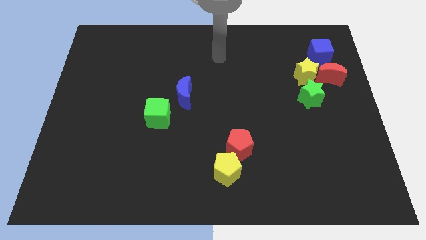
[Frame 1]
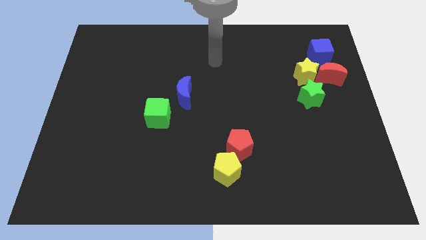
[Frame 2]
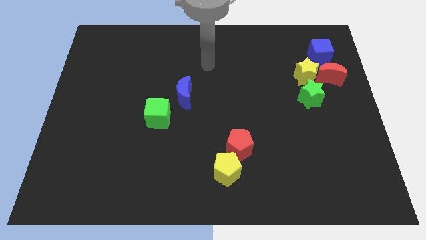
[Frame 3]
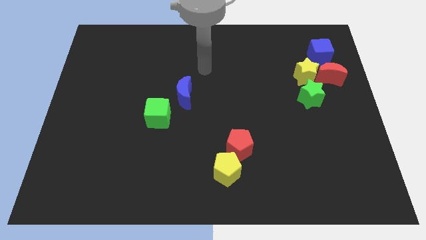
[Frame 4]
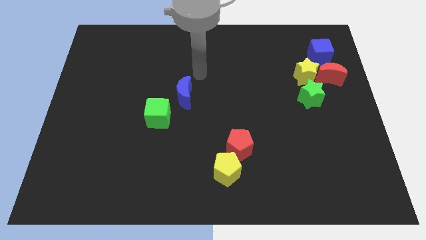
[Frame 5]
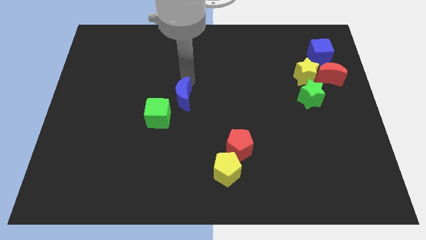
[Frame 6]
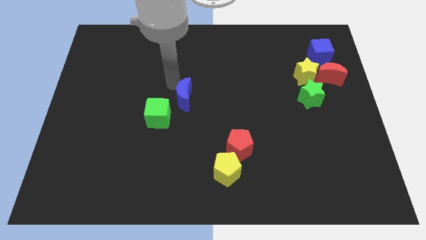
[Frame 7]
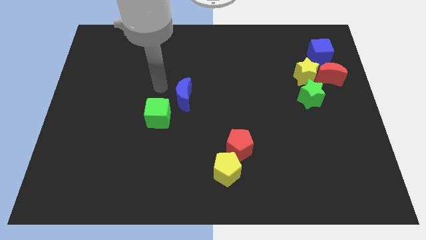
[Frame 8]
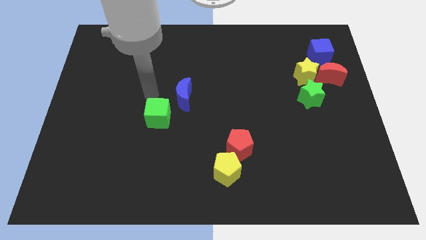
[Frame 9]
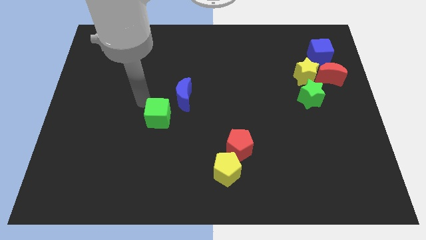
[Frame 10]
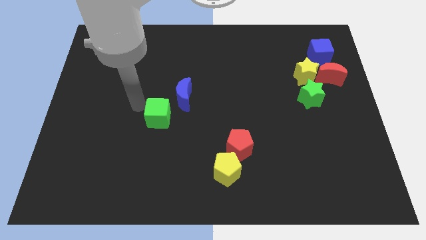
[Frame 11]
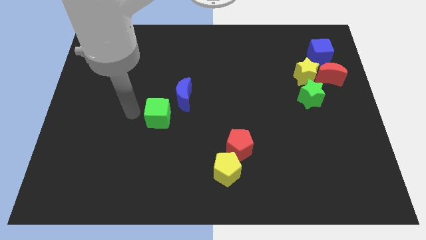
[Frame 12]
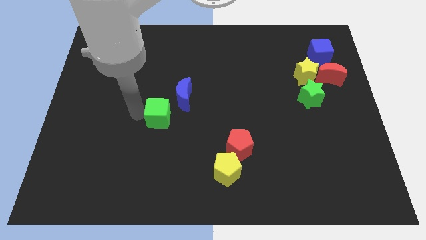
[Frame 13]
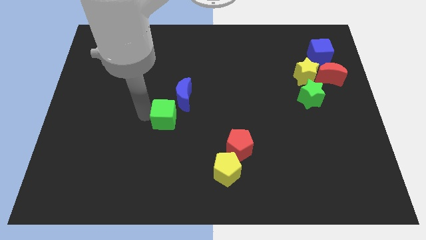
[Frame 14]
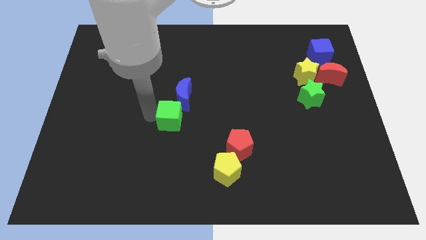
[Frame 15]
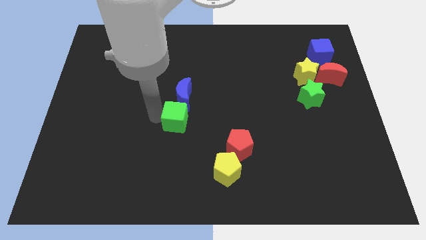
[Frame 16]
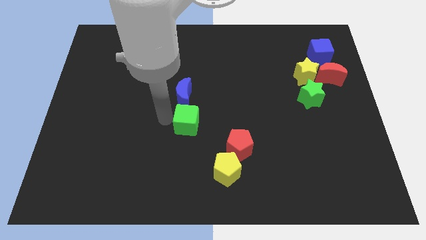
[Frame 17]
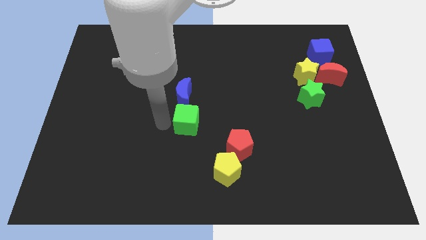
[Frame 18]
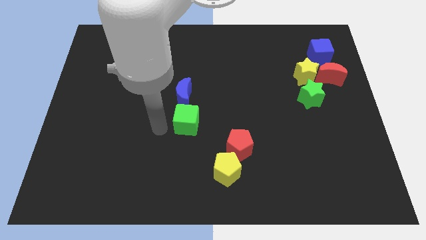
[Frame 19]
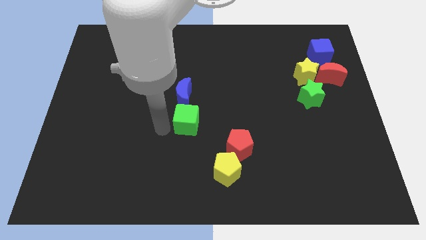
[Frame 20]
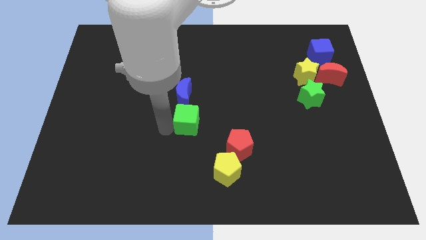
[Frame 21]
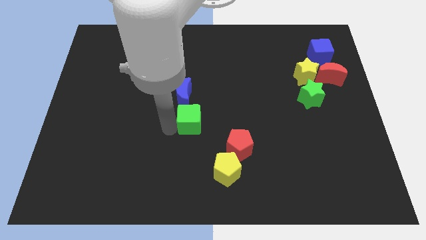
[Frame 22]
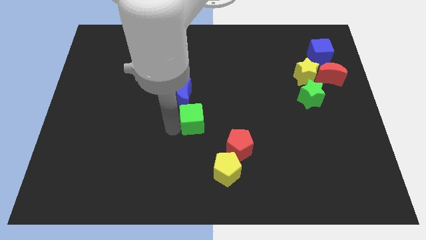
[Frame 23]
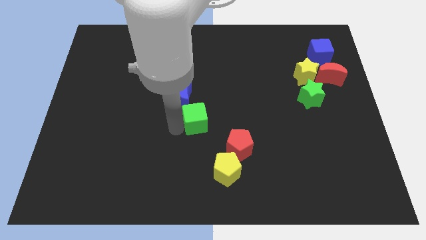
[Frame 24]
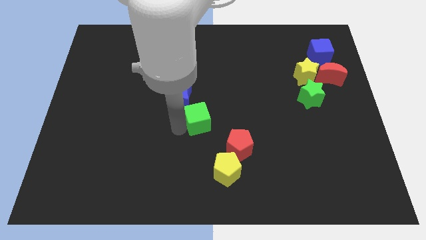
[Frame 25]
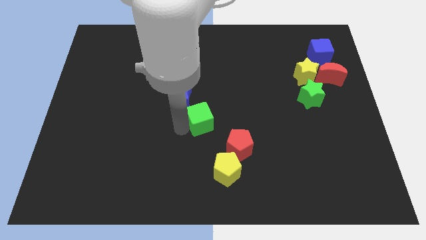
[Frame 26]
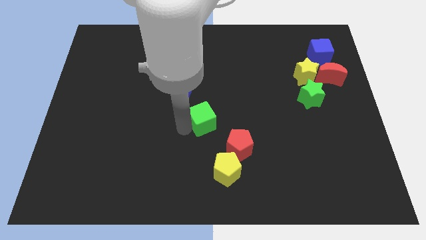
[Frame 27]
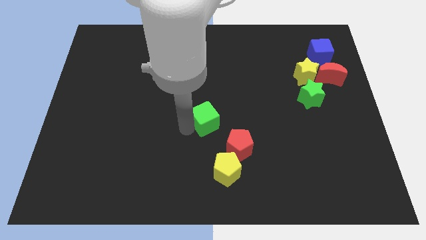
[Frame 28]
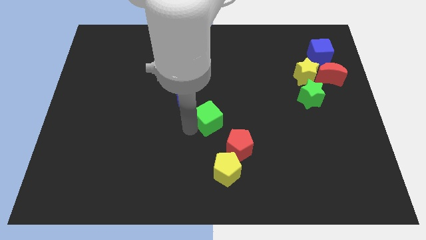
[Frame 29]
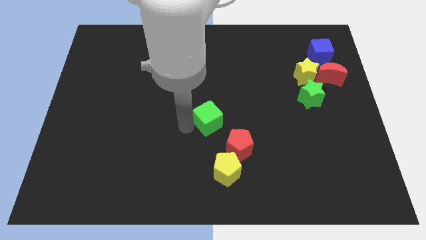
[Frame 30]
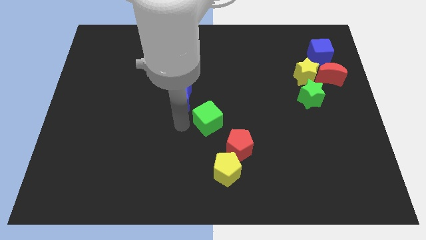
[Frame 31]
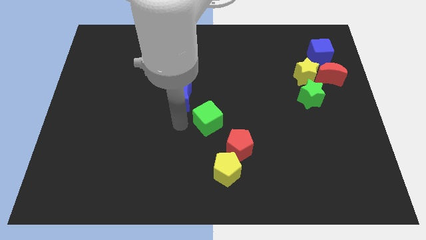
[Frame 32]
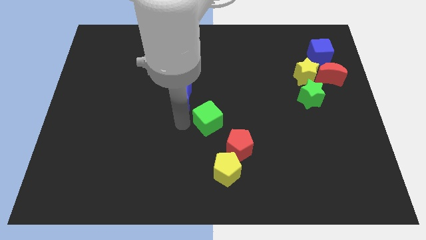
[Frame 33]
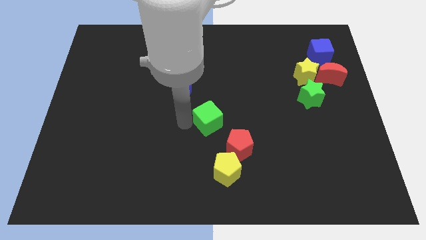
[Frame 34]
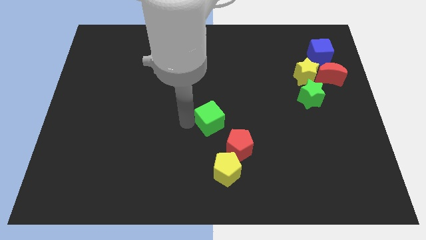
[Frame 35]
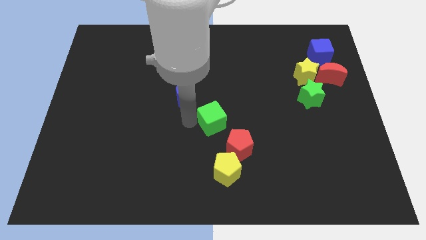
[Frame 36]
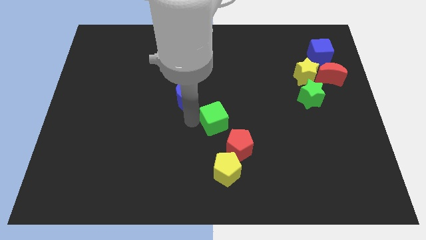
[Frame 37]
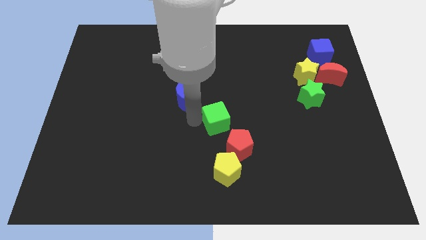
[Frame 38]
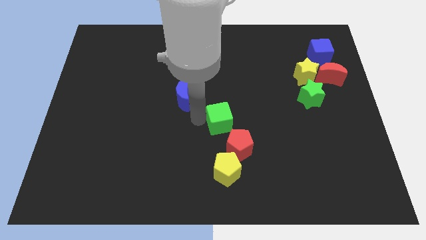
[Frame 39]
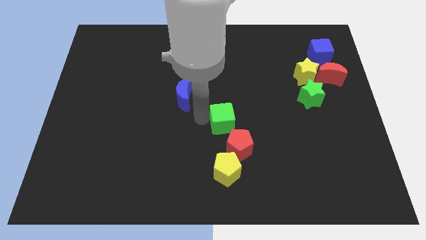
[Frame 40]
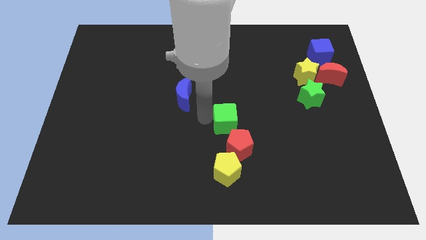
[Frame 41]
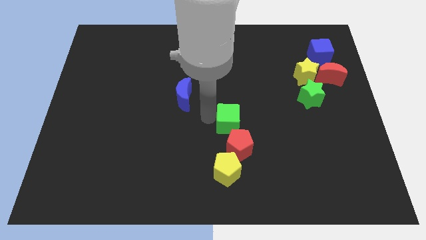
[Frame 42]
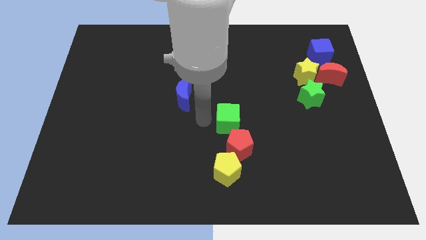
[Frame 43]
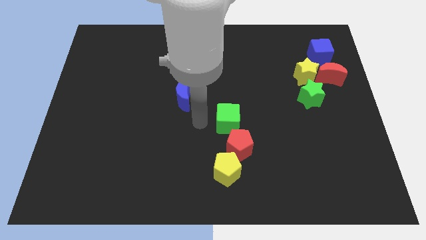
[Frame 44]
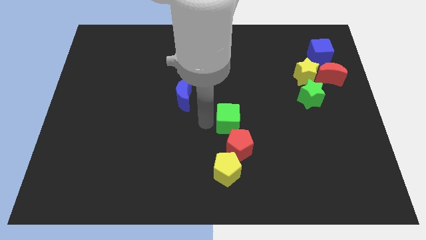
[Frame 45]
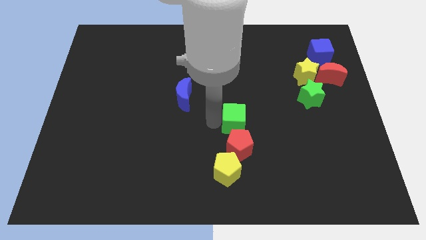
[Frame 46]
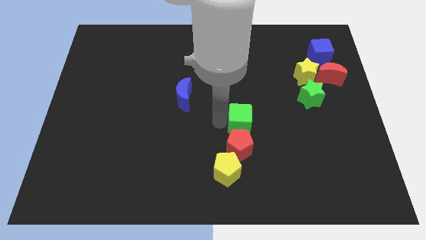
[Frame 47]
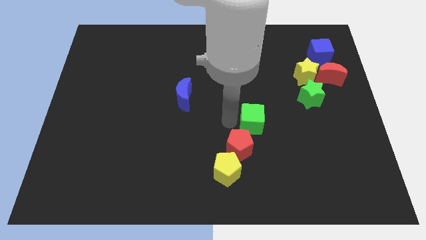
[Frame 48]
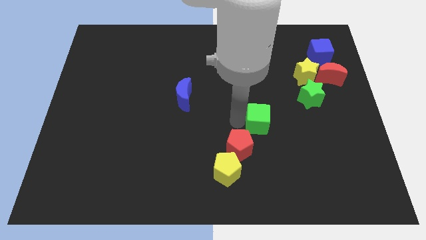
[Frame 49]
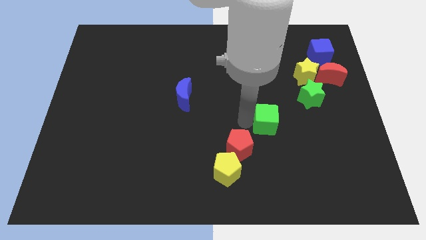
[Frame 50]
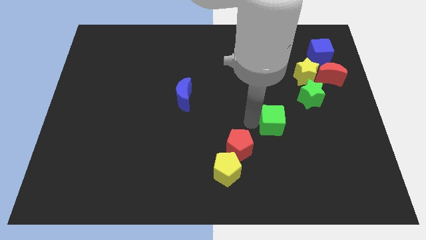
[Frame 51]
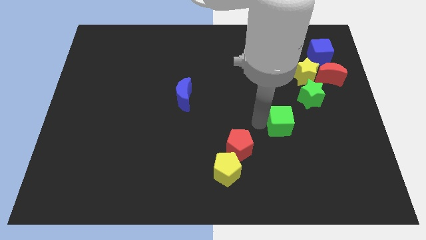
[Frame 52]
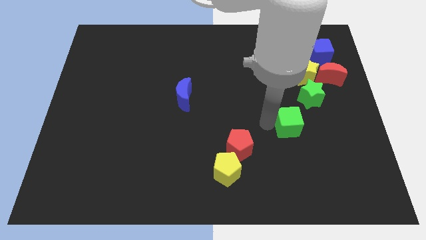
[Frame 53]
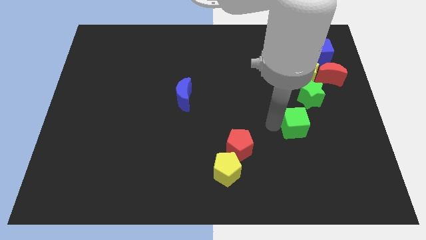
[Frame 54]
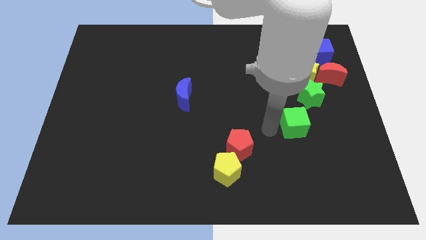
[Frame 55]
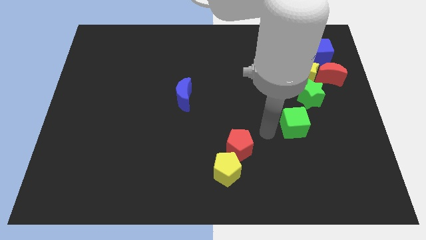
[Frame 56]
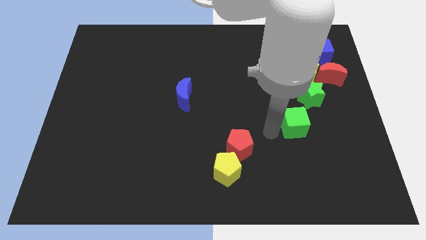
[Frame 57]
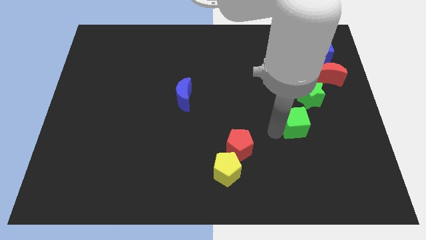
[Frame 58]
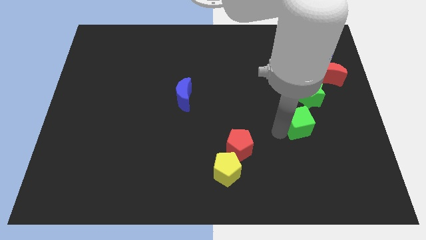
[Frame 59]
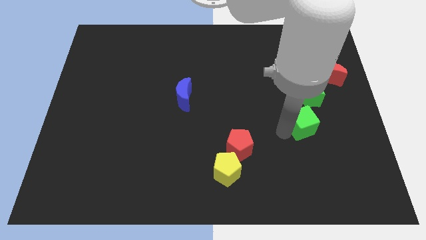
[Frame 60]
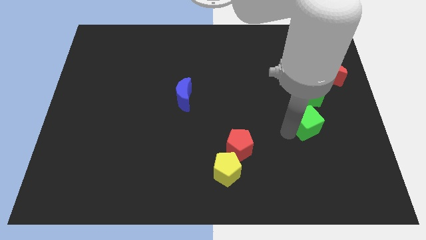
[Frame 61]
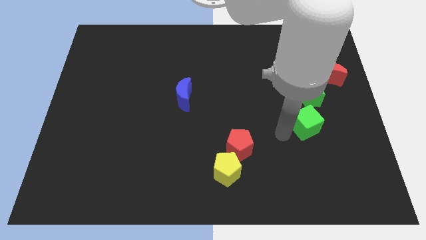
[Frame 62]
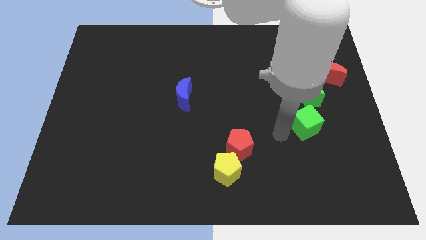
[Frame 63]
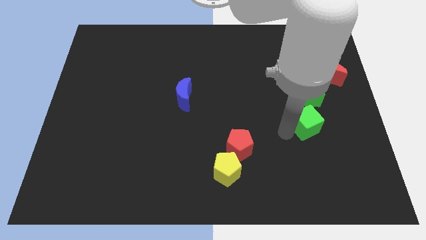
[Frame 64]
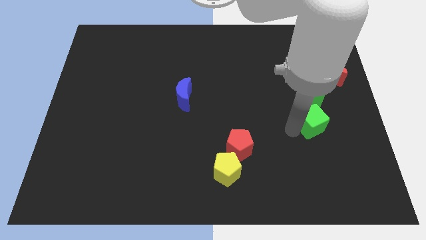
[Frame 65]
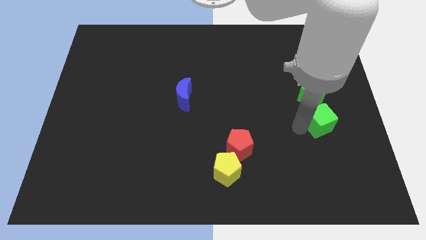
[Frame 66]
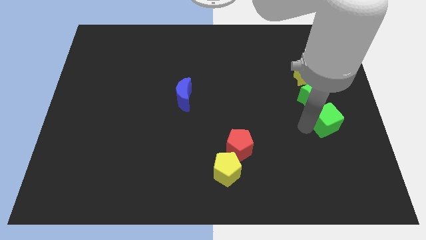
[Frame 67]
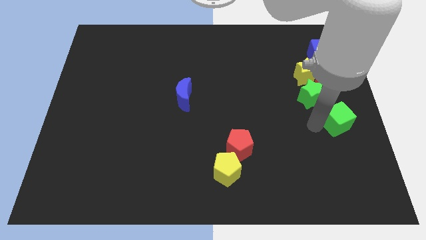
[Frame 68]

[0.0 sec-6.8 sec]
move the green cube to the right side of the board

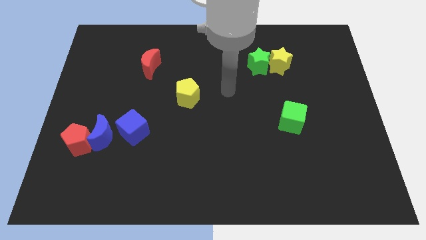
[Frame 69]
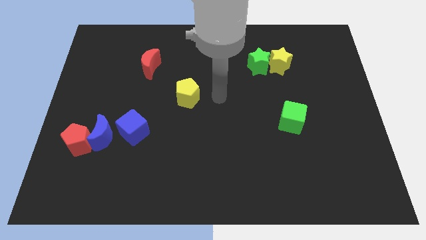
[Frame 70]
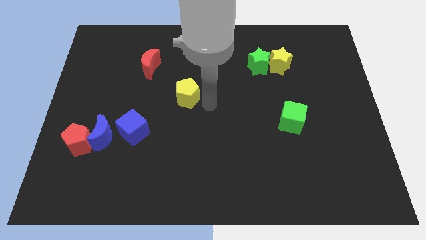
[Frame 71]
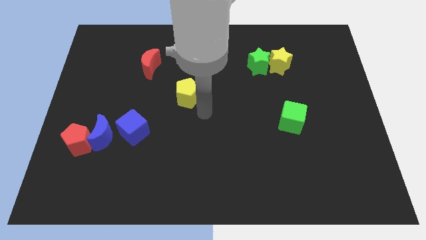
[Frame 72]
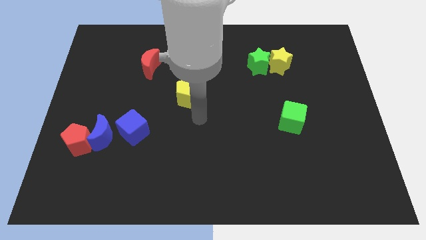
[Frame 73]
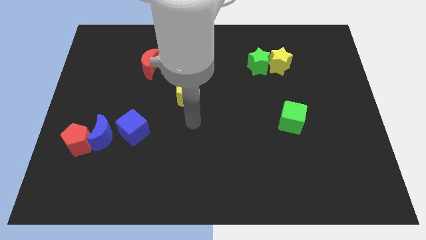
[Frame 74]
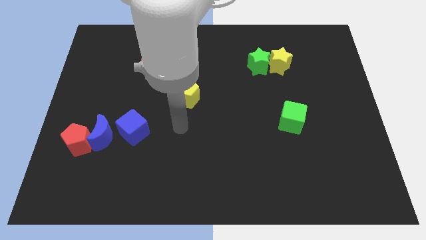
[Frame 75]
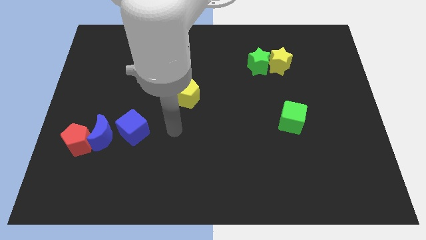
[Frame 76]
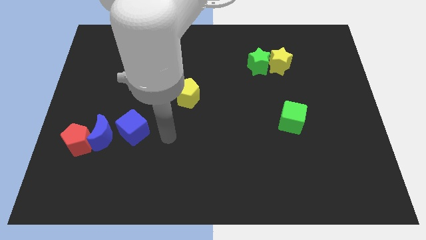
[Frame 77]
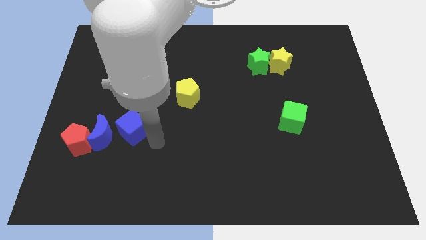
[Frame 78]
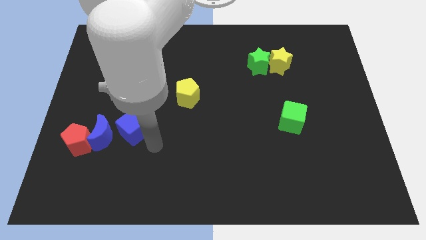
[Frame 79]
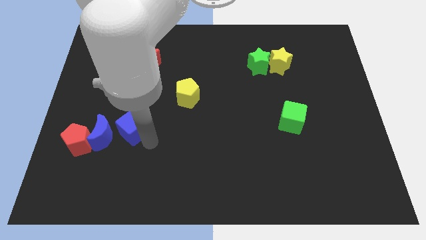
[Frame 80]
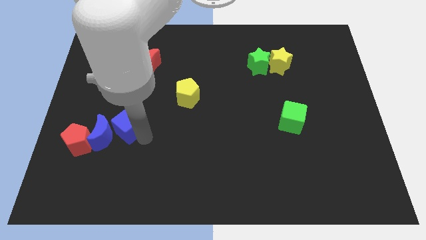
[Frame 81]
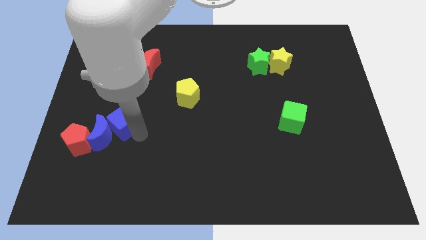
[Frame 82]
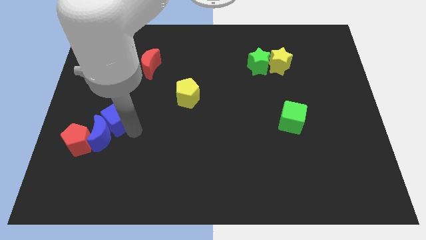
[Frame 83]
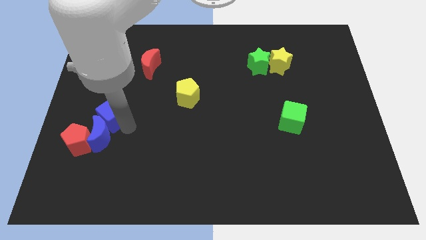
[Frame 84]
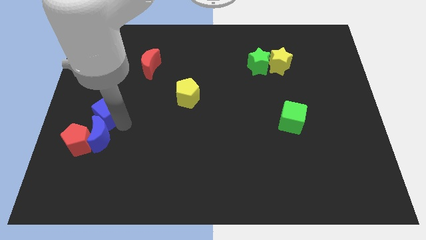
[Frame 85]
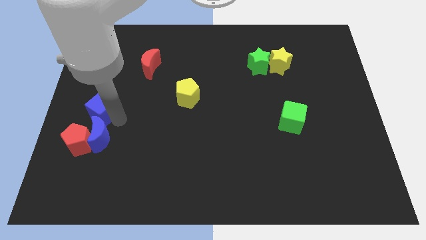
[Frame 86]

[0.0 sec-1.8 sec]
put the blue cube to the left side of the board
